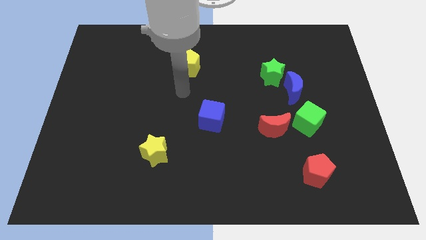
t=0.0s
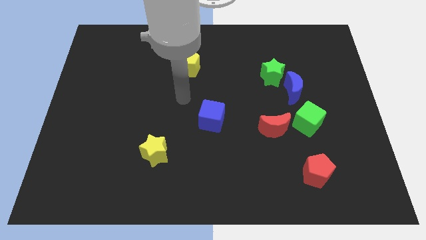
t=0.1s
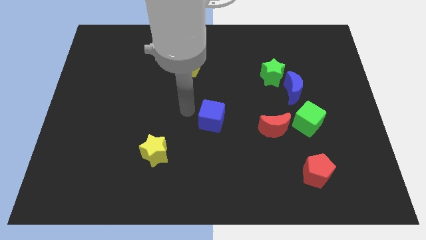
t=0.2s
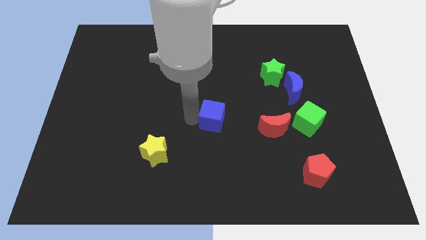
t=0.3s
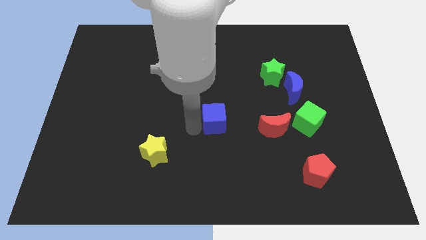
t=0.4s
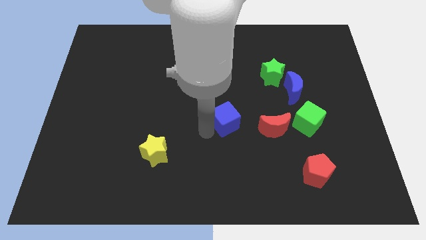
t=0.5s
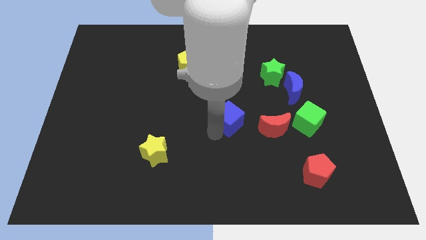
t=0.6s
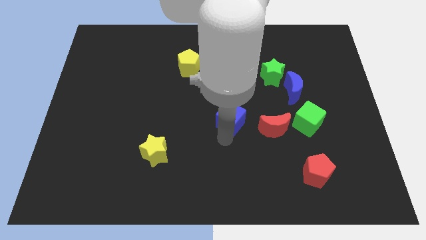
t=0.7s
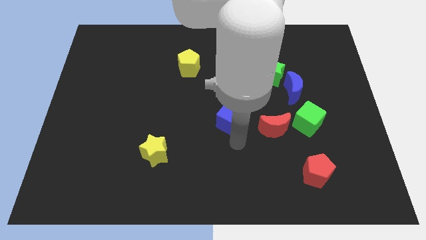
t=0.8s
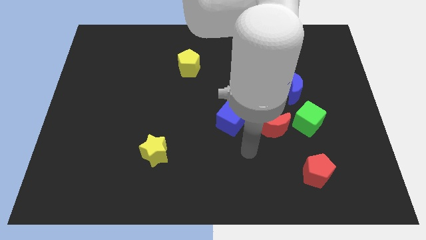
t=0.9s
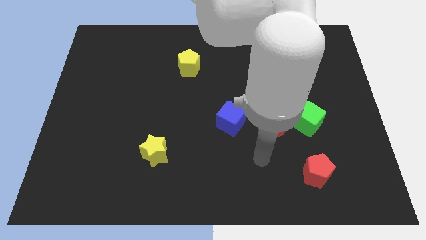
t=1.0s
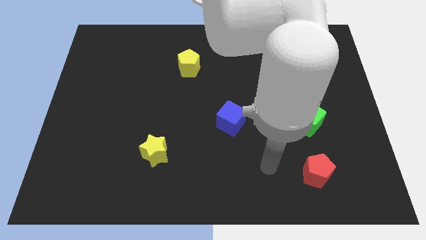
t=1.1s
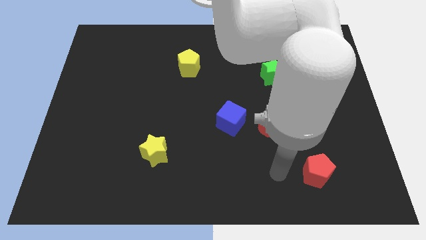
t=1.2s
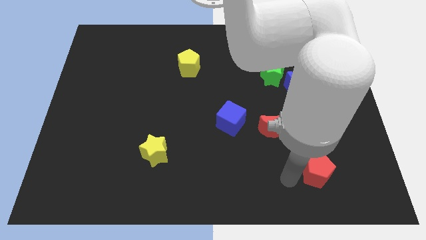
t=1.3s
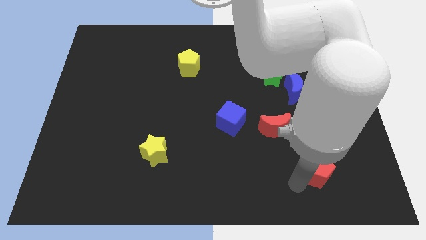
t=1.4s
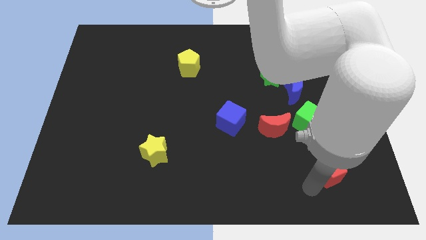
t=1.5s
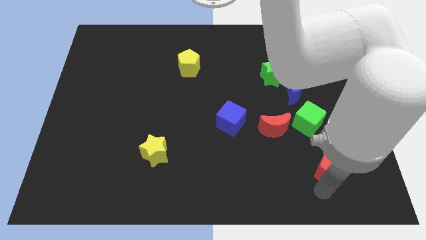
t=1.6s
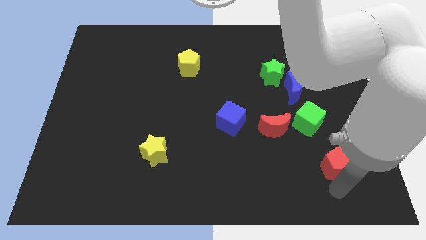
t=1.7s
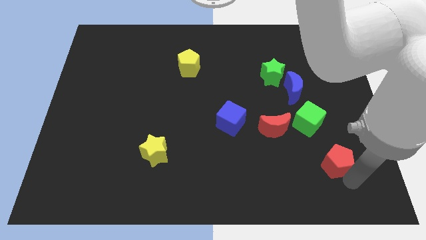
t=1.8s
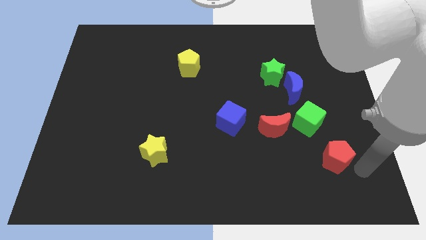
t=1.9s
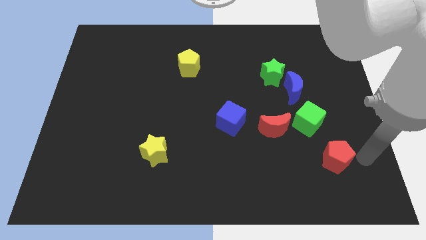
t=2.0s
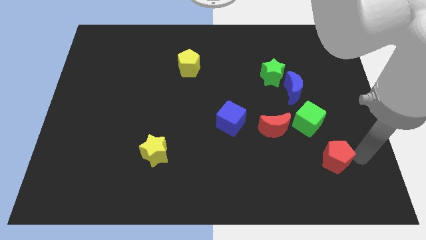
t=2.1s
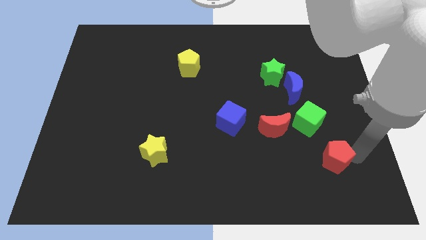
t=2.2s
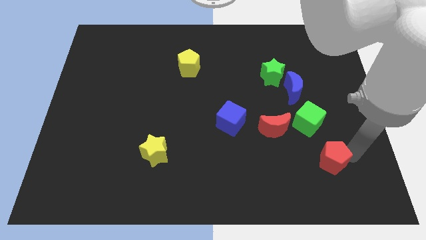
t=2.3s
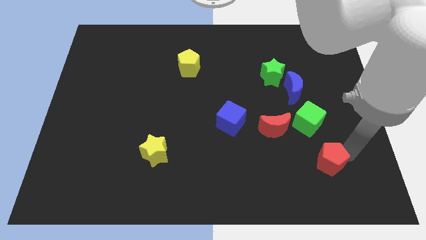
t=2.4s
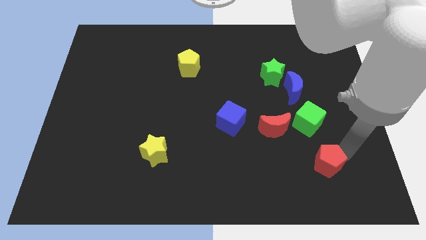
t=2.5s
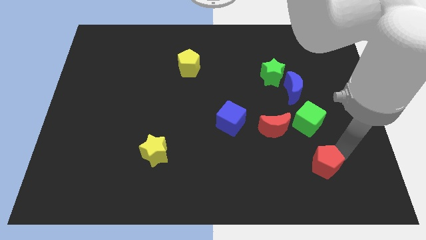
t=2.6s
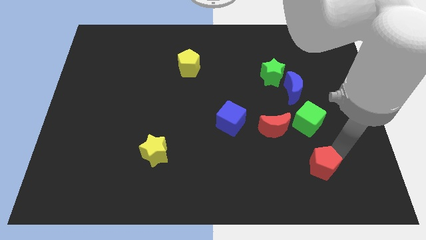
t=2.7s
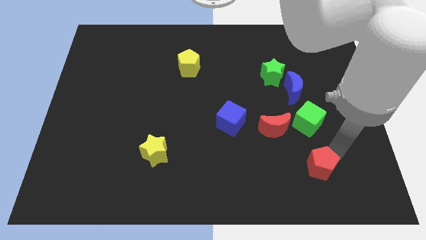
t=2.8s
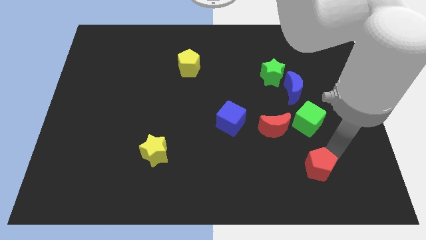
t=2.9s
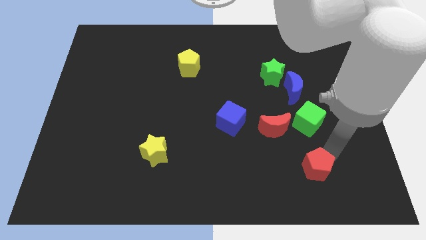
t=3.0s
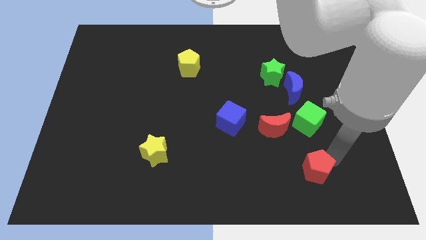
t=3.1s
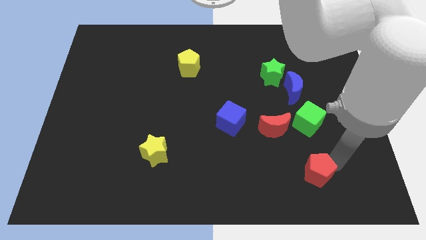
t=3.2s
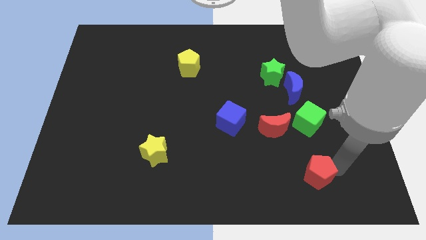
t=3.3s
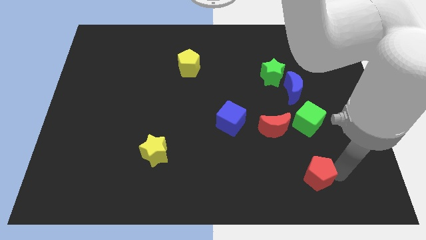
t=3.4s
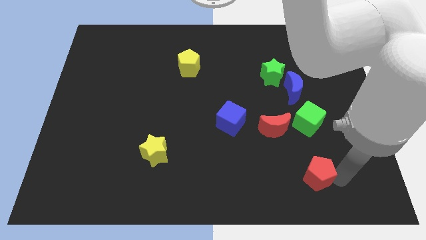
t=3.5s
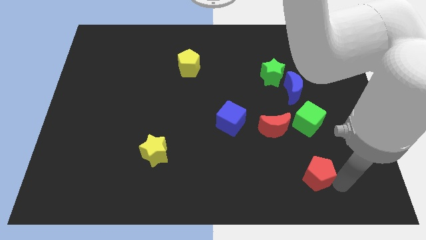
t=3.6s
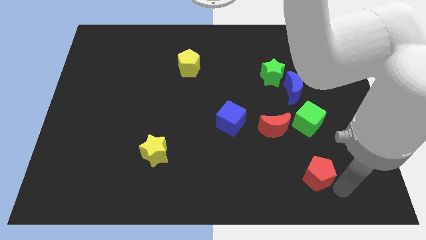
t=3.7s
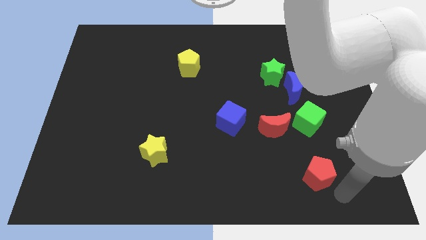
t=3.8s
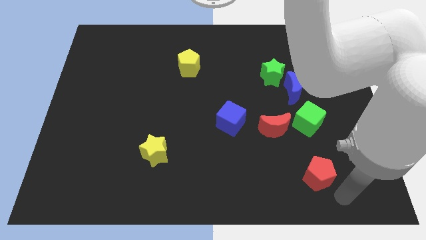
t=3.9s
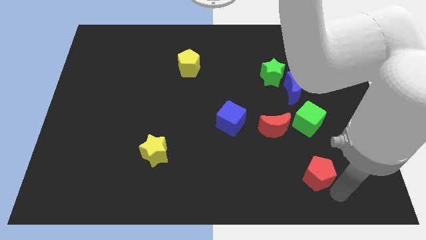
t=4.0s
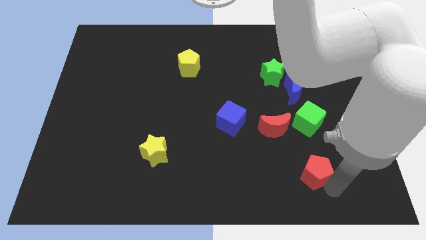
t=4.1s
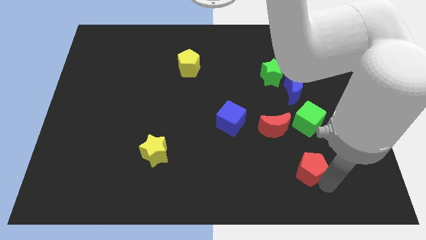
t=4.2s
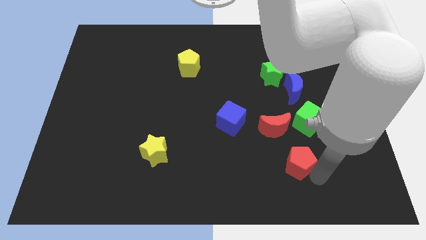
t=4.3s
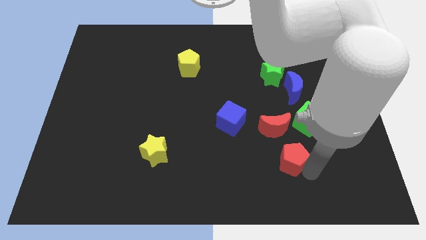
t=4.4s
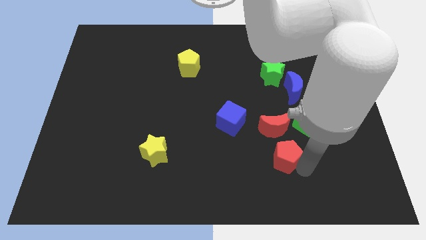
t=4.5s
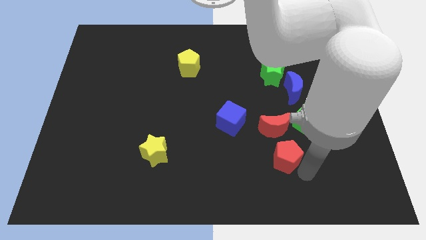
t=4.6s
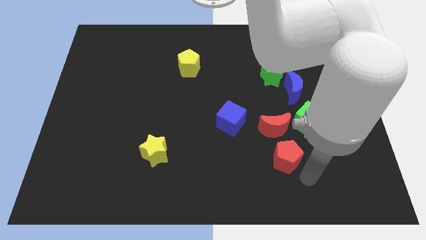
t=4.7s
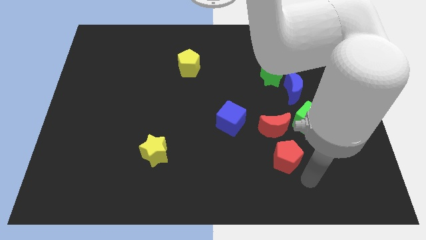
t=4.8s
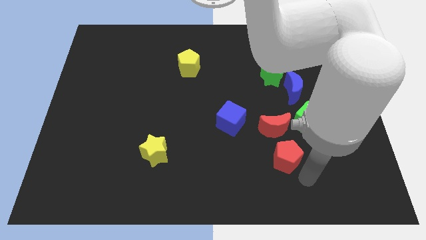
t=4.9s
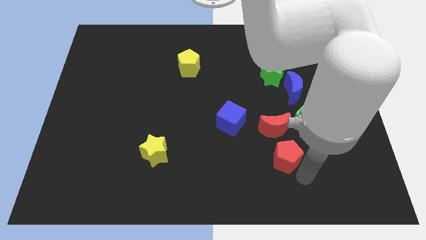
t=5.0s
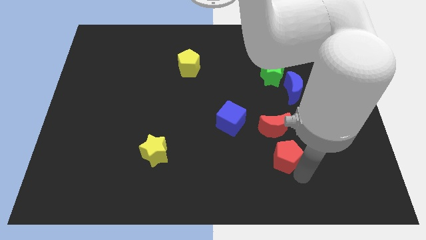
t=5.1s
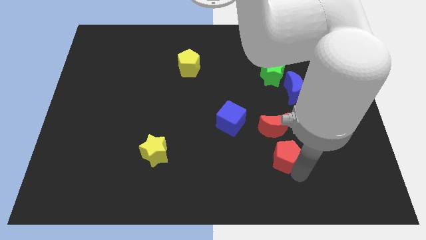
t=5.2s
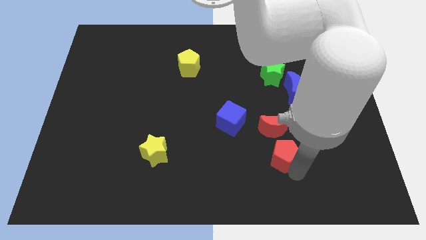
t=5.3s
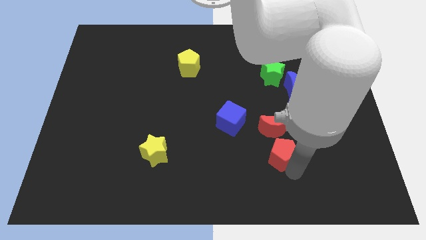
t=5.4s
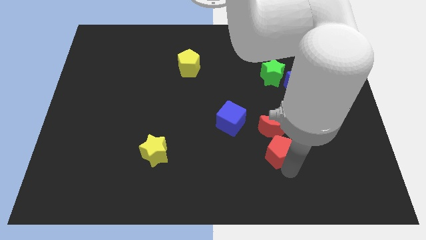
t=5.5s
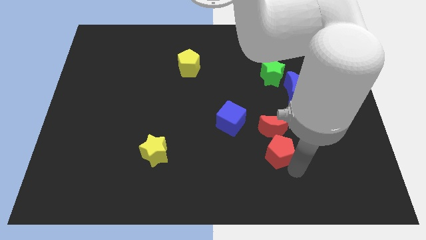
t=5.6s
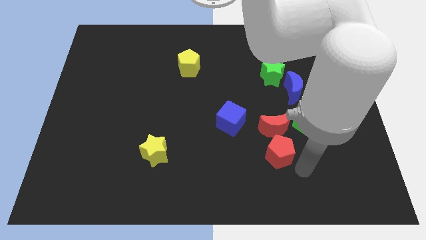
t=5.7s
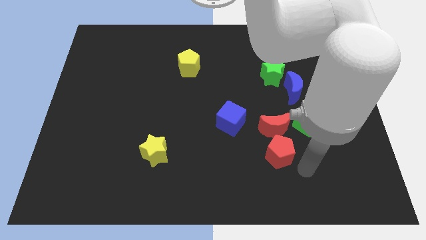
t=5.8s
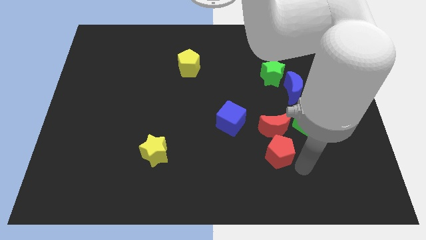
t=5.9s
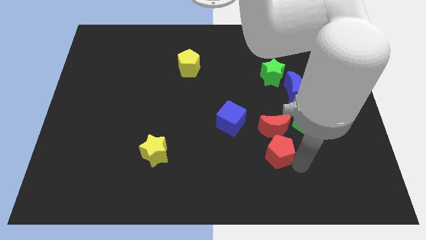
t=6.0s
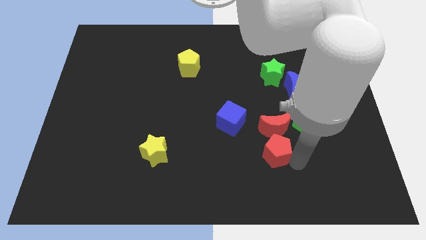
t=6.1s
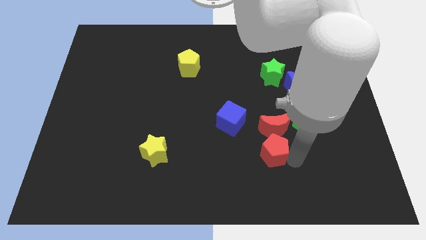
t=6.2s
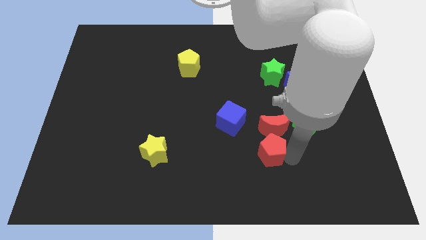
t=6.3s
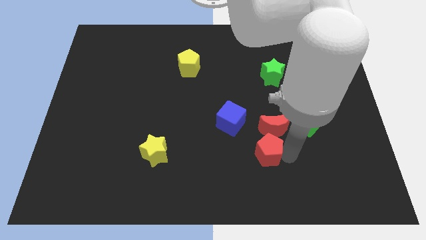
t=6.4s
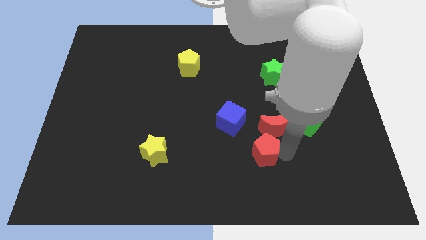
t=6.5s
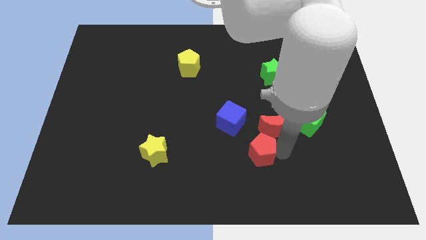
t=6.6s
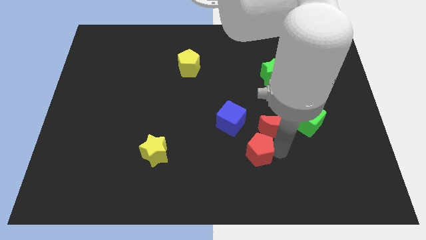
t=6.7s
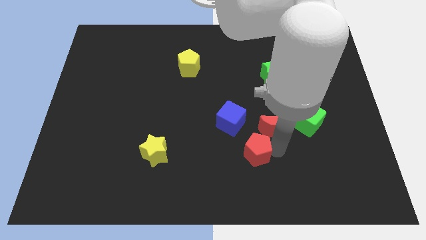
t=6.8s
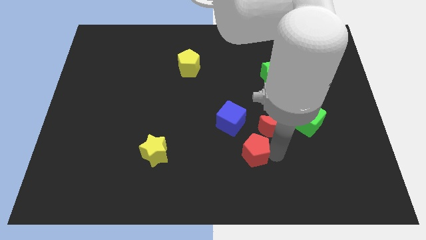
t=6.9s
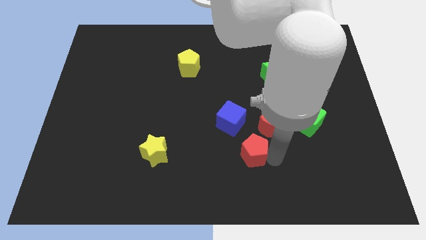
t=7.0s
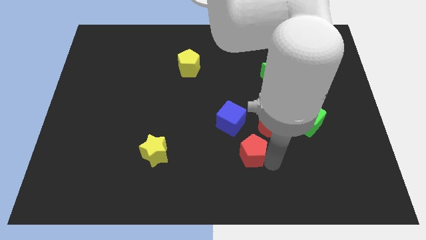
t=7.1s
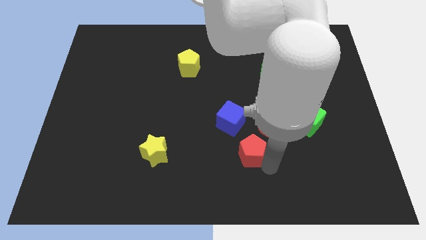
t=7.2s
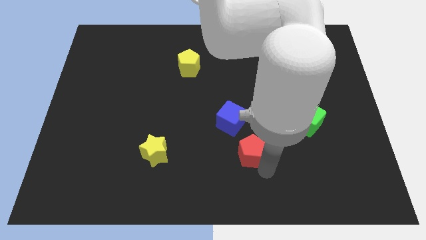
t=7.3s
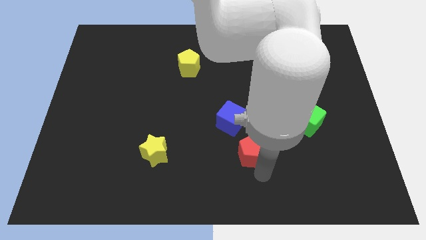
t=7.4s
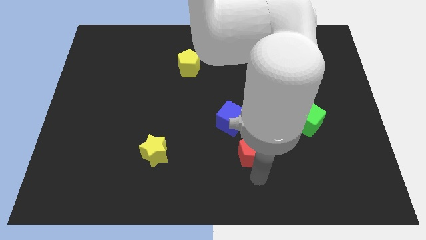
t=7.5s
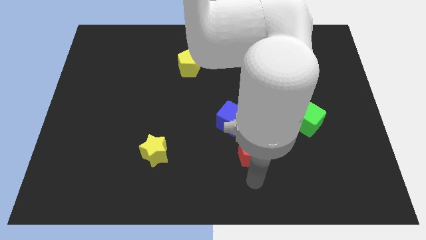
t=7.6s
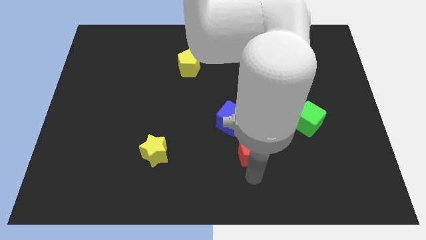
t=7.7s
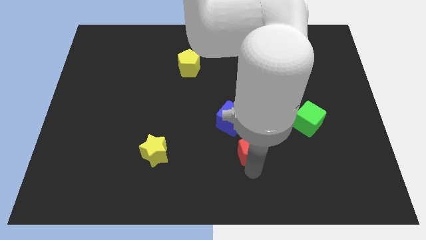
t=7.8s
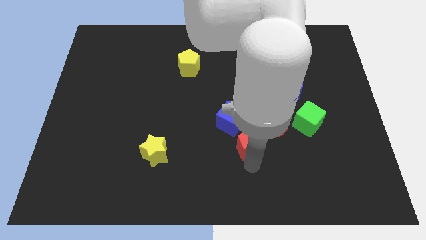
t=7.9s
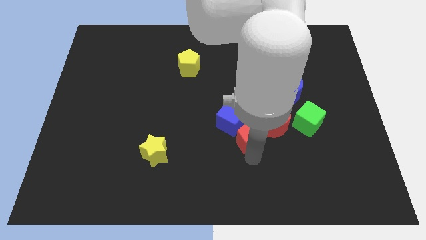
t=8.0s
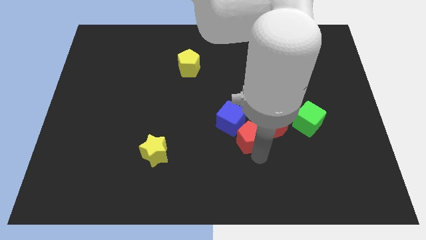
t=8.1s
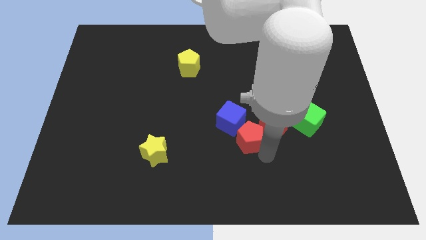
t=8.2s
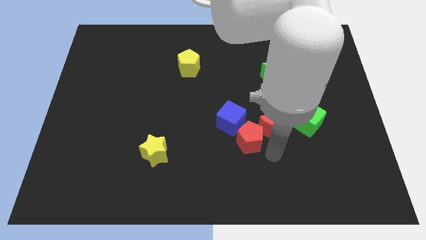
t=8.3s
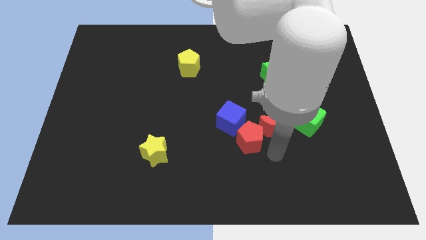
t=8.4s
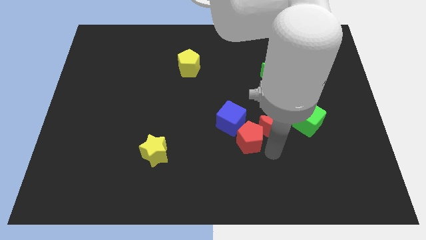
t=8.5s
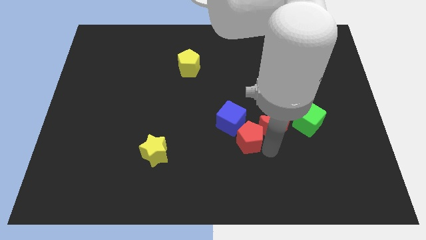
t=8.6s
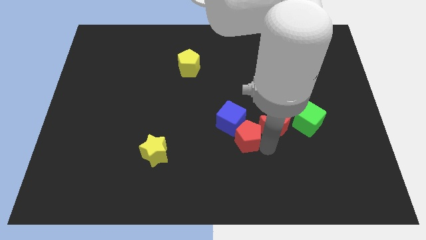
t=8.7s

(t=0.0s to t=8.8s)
put the red pentagon to the blue cube
